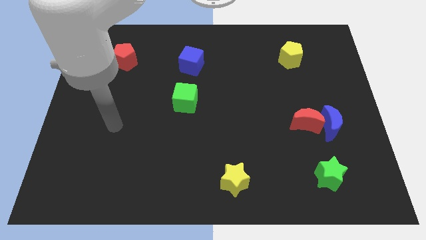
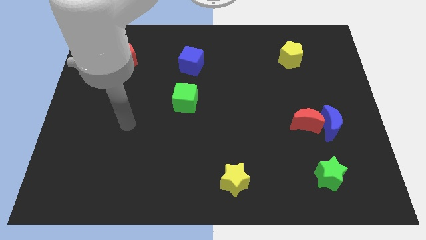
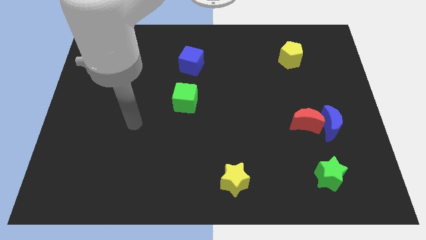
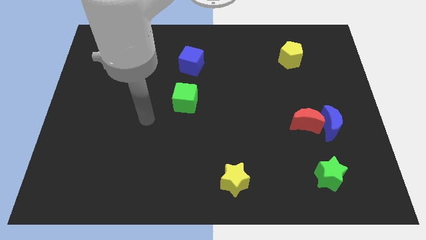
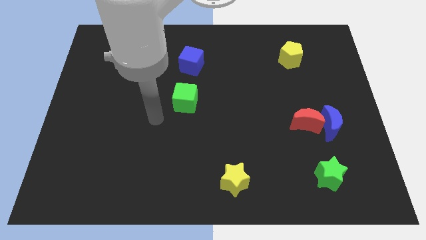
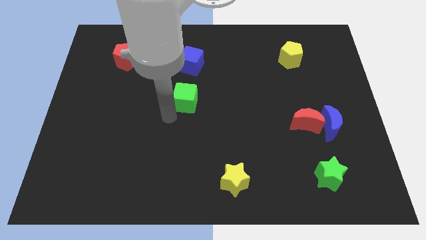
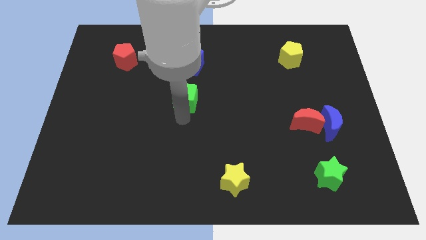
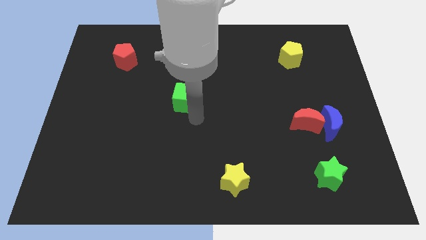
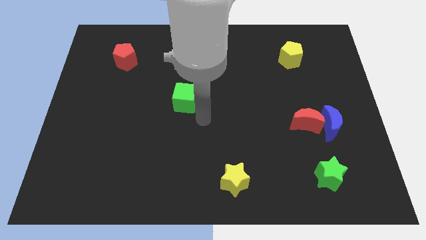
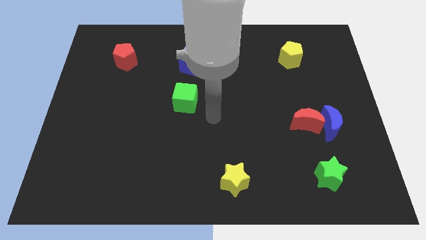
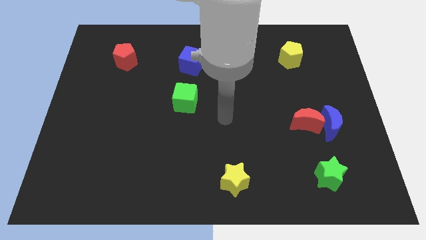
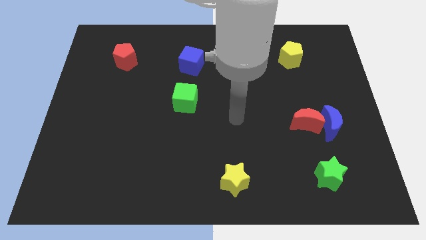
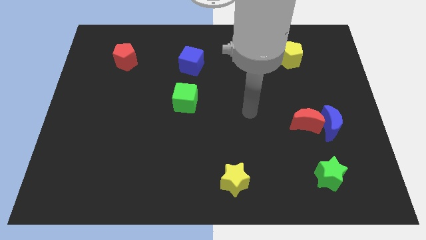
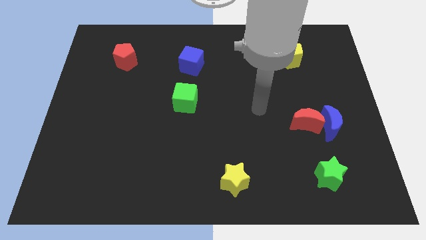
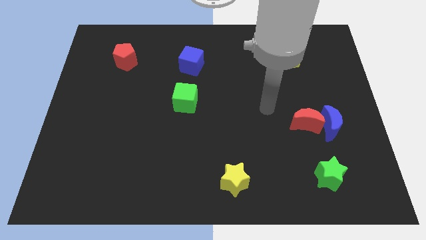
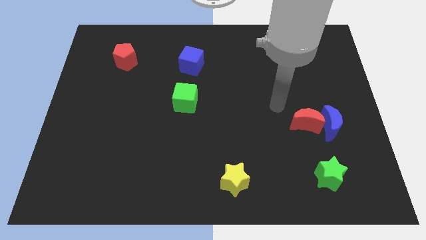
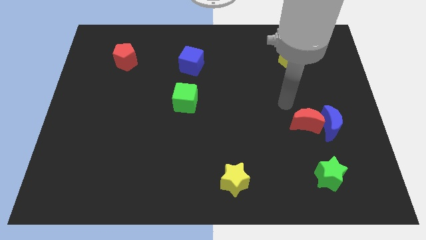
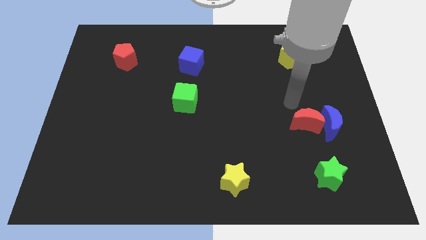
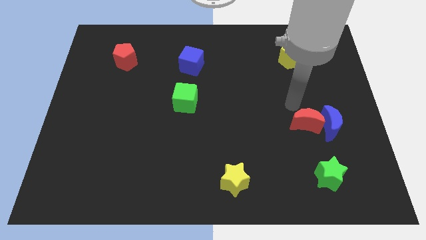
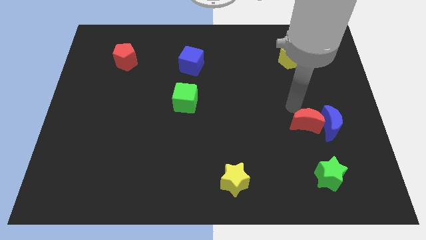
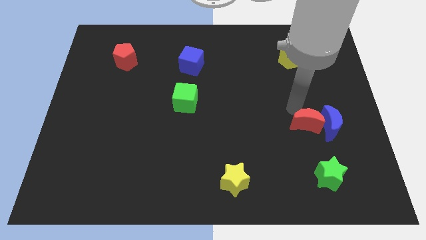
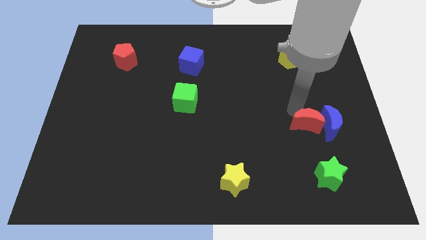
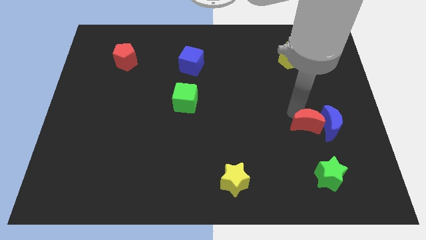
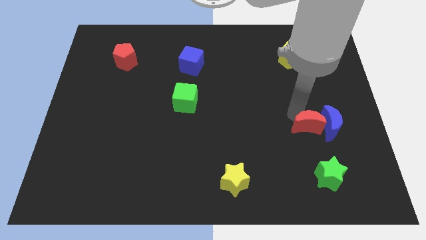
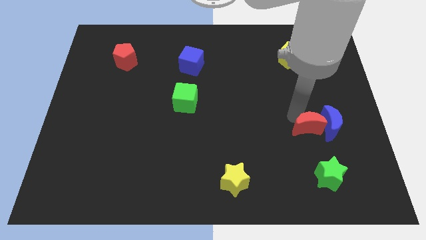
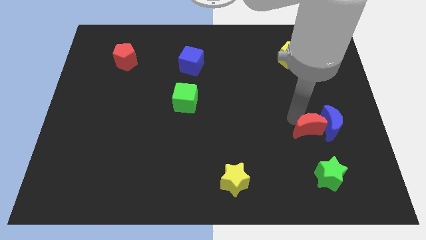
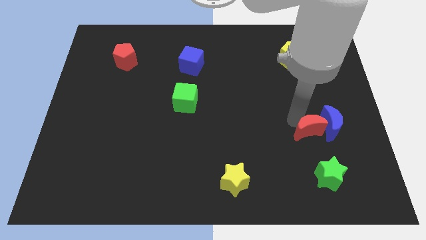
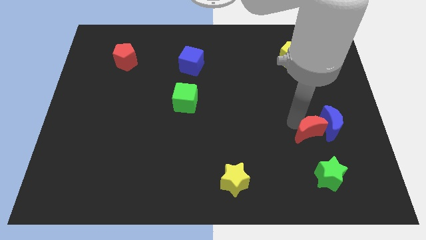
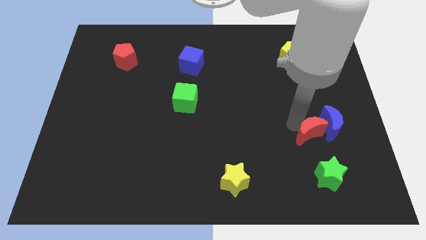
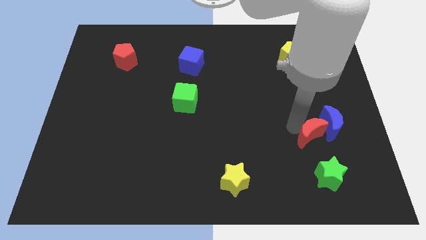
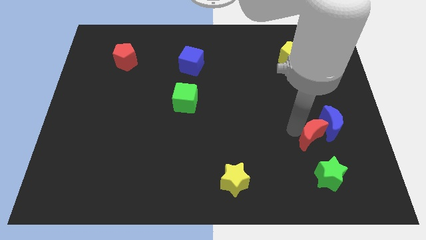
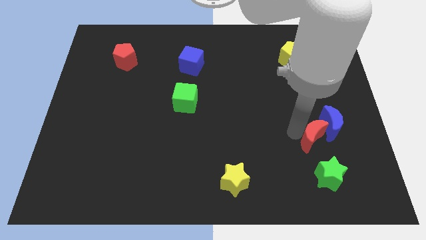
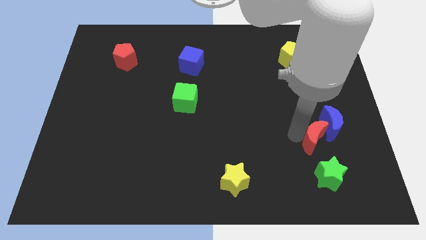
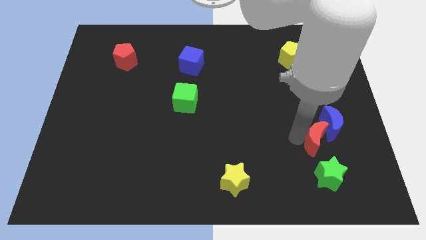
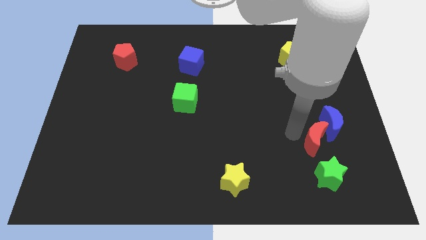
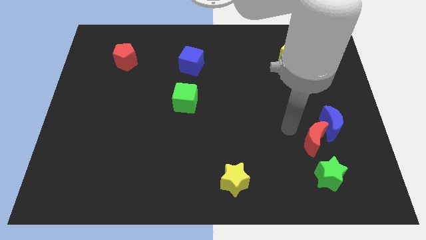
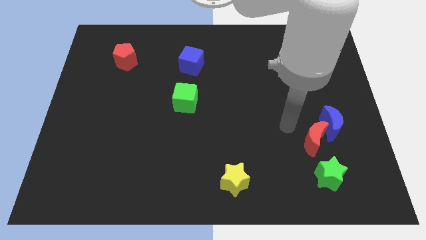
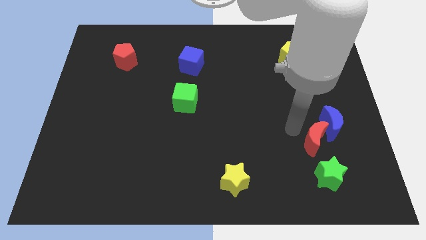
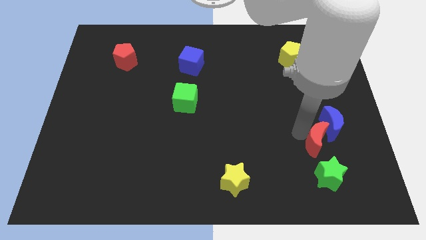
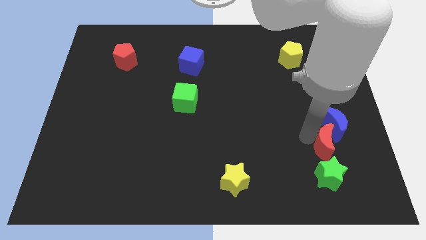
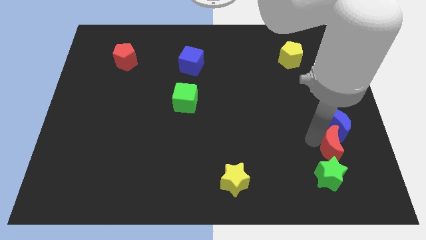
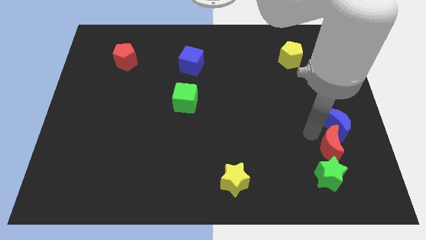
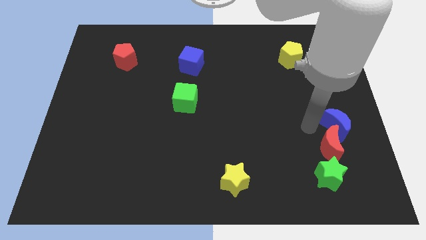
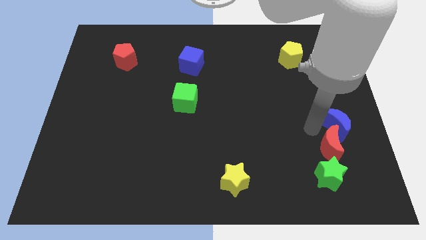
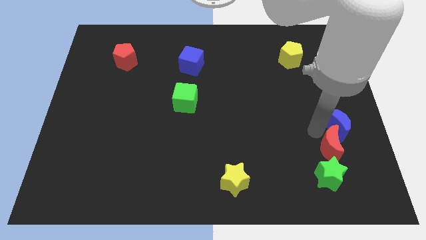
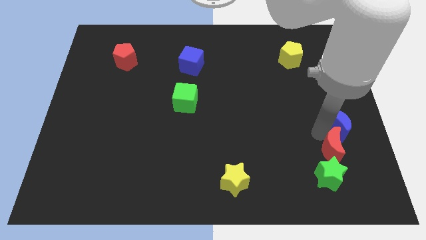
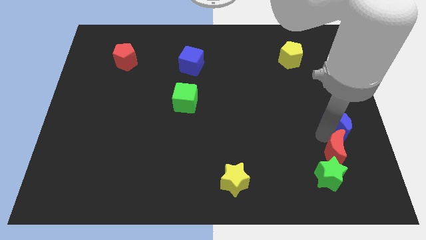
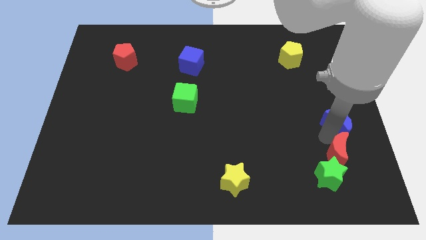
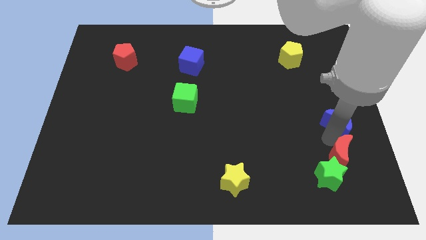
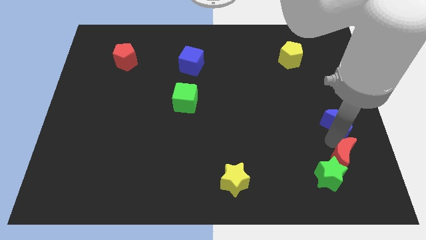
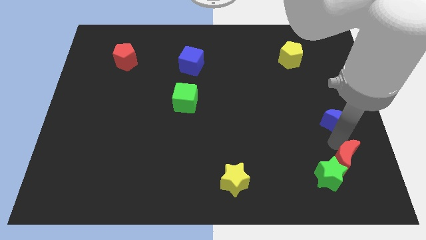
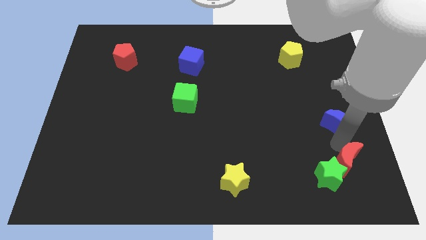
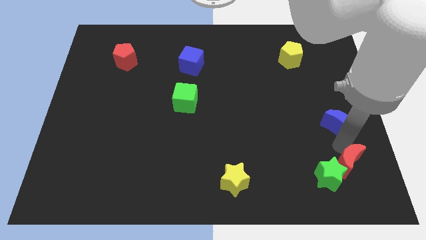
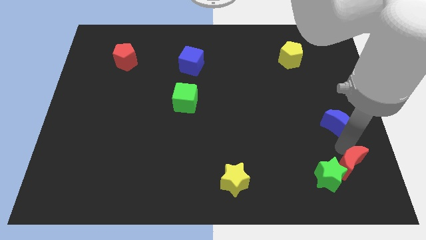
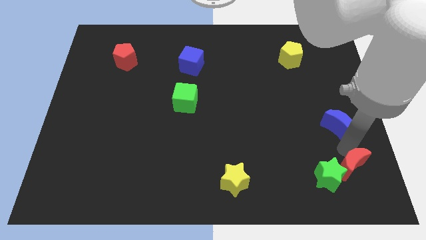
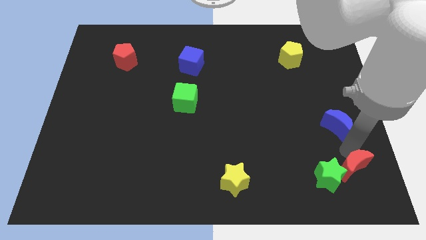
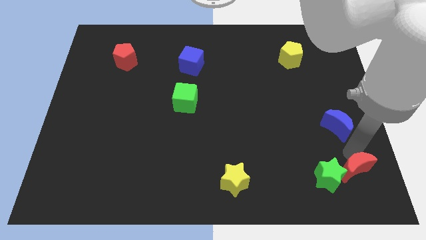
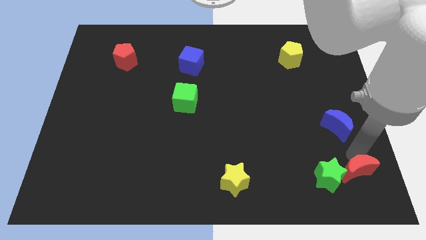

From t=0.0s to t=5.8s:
push the red moon to the bottom right corner
